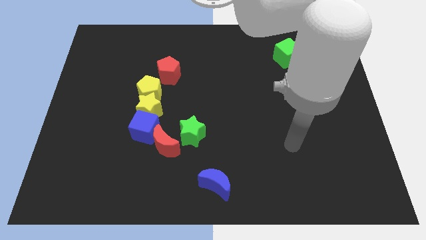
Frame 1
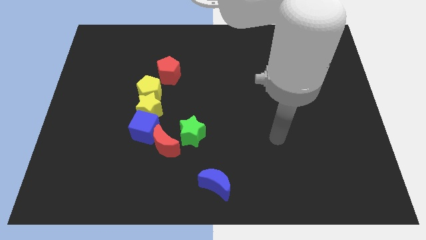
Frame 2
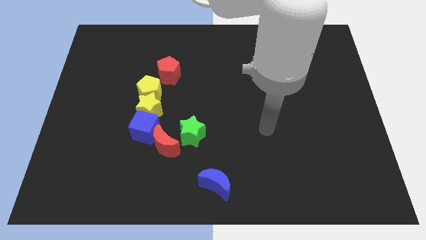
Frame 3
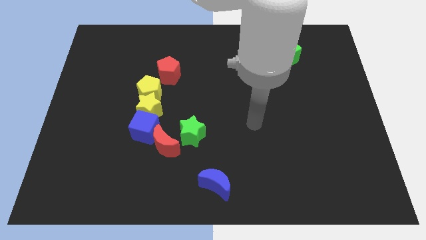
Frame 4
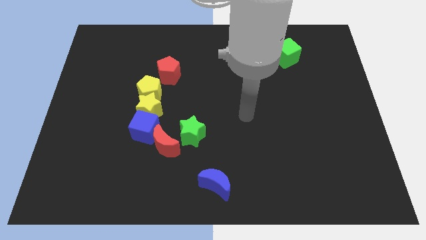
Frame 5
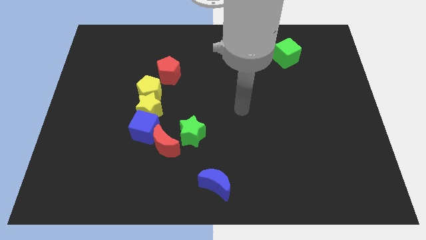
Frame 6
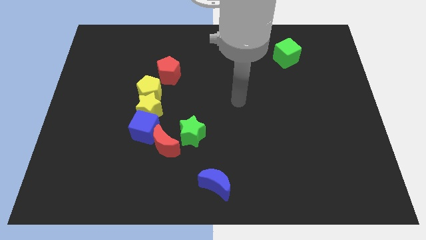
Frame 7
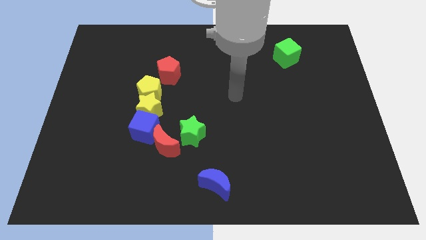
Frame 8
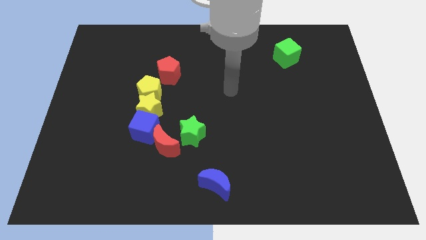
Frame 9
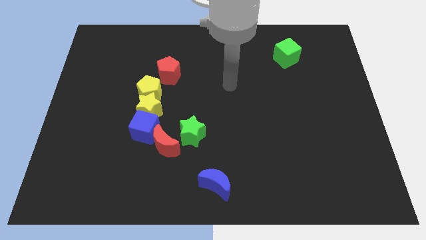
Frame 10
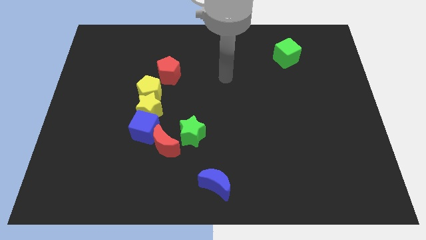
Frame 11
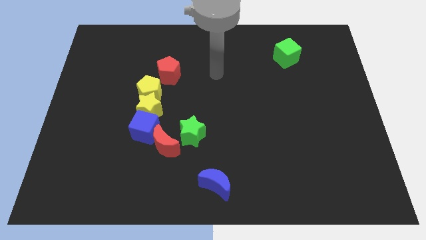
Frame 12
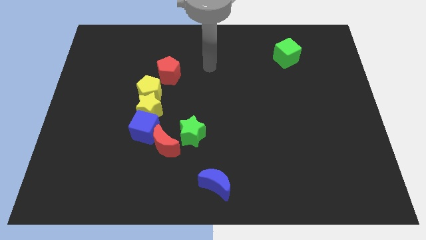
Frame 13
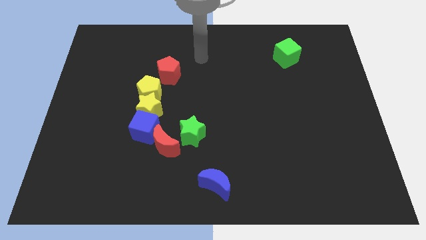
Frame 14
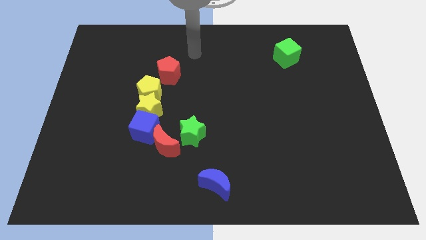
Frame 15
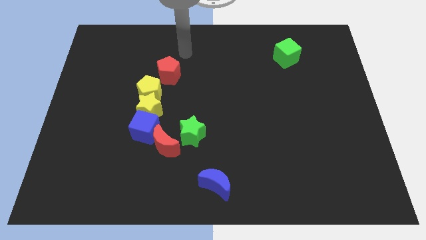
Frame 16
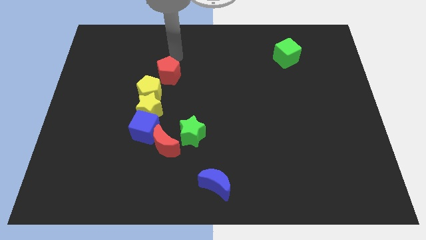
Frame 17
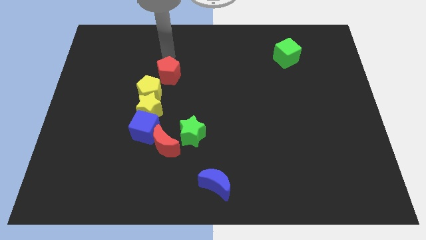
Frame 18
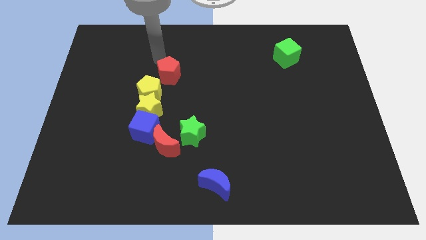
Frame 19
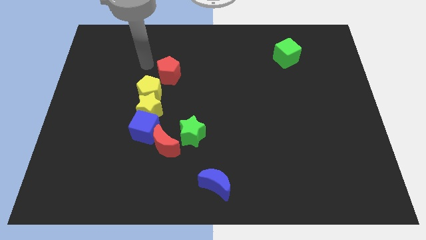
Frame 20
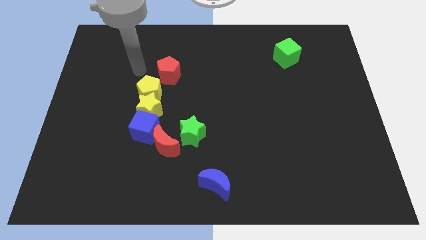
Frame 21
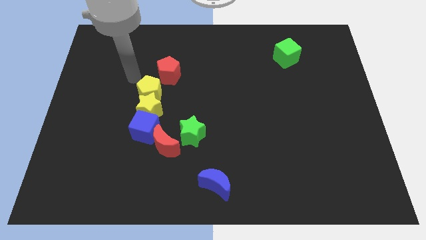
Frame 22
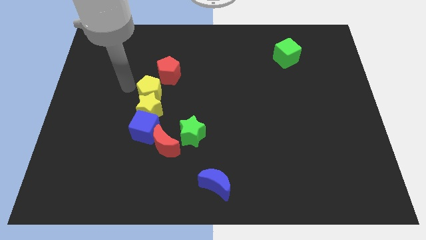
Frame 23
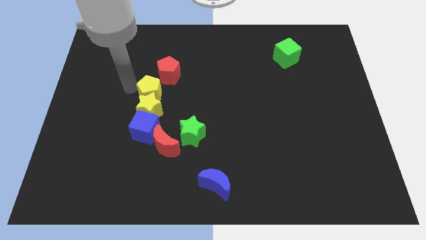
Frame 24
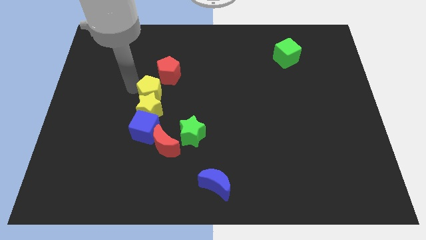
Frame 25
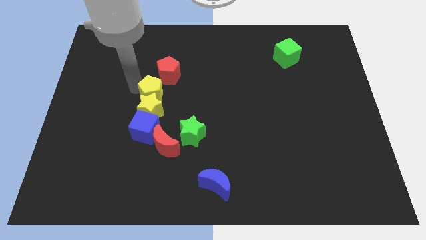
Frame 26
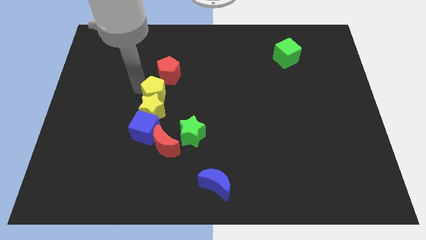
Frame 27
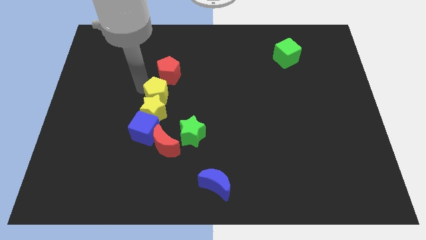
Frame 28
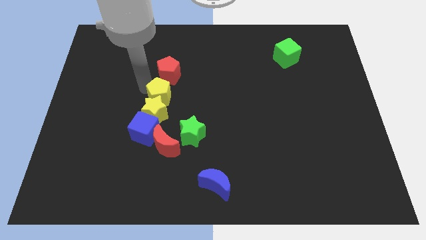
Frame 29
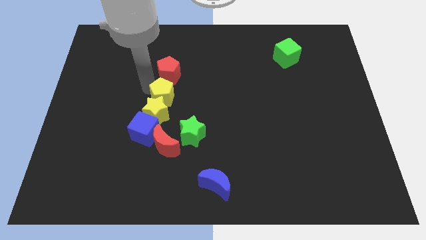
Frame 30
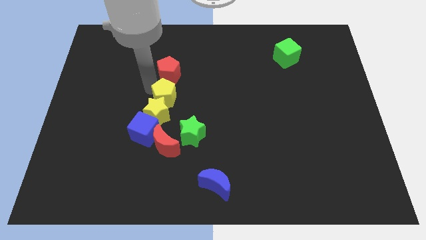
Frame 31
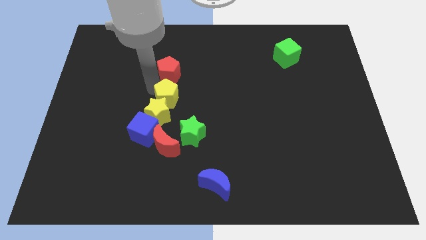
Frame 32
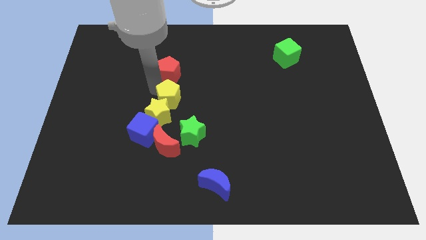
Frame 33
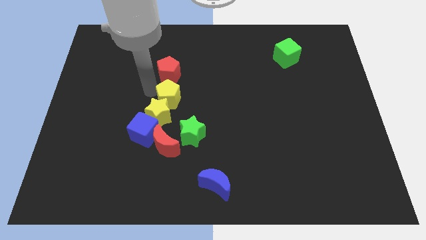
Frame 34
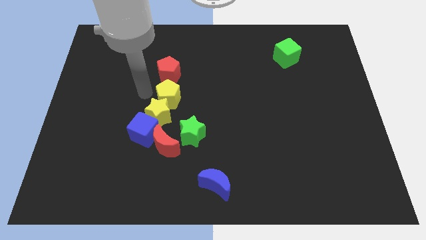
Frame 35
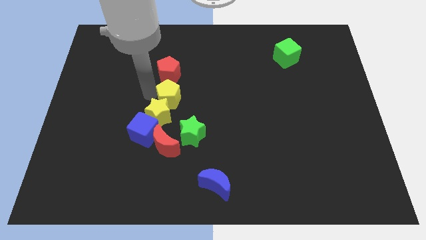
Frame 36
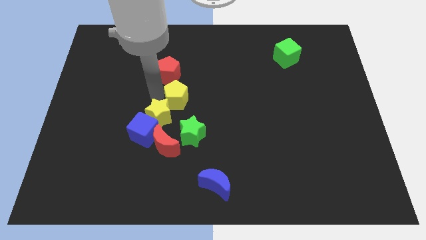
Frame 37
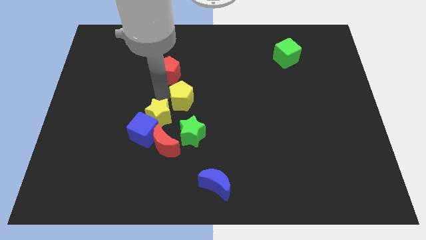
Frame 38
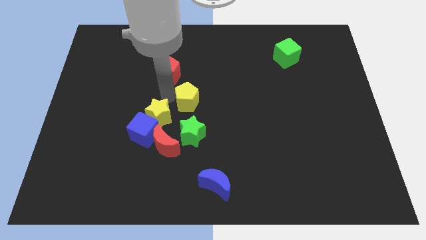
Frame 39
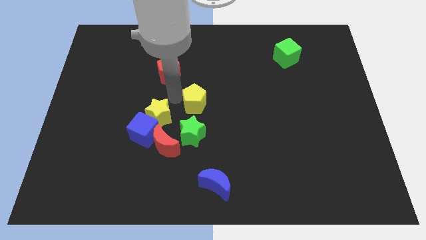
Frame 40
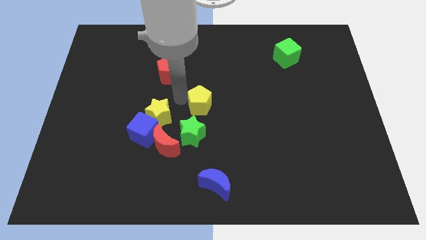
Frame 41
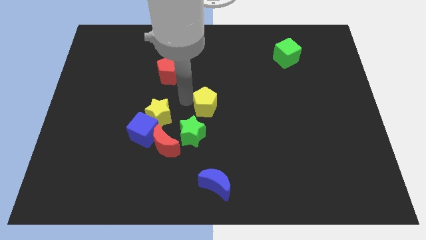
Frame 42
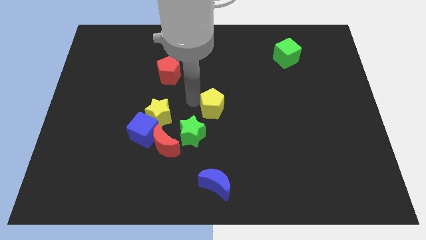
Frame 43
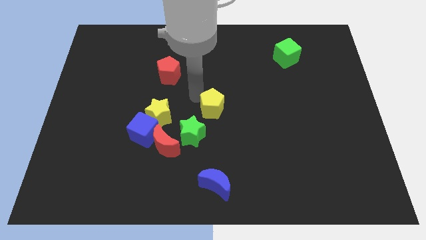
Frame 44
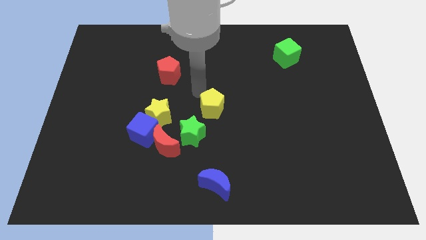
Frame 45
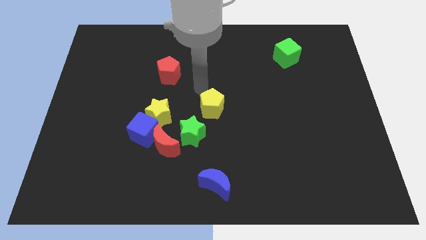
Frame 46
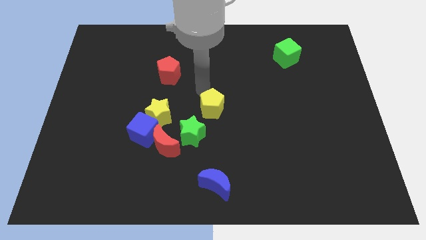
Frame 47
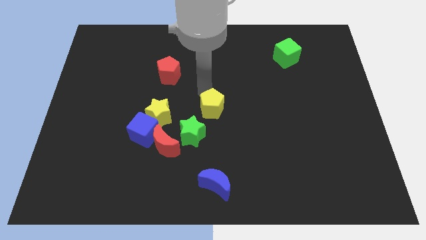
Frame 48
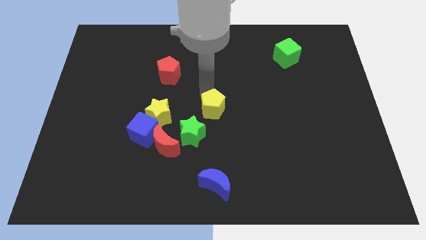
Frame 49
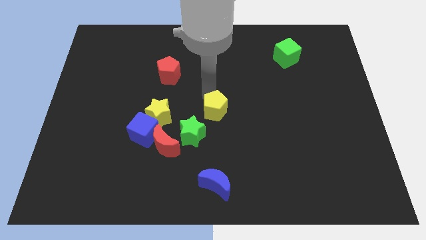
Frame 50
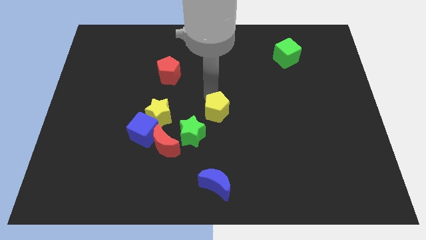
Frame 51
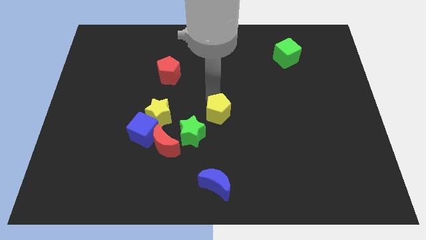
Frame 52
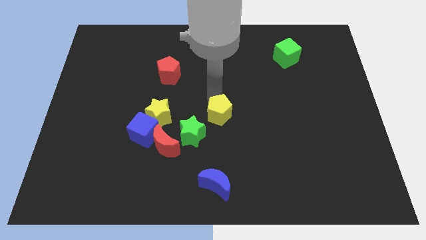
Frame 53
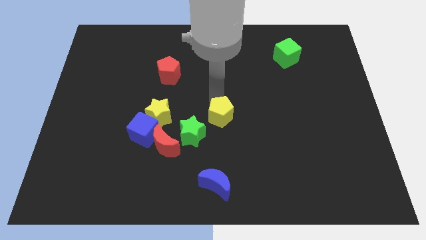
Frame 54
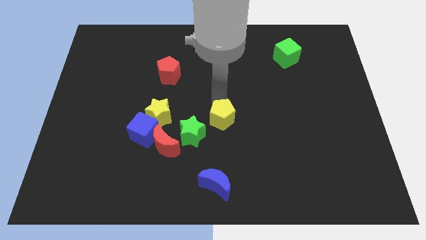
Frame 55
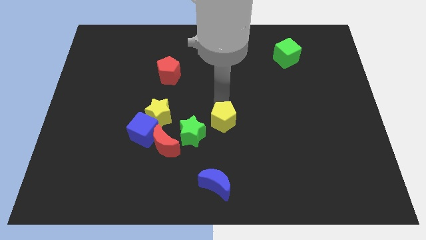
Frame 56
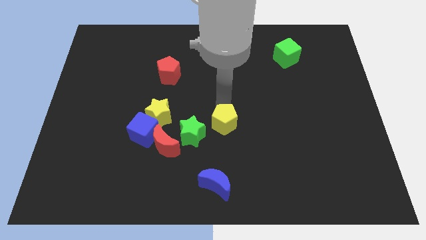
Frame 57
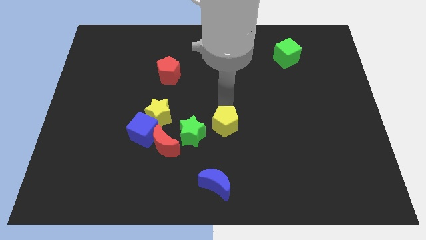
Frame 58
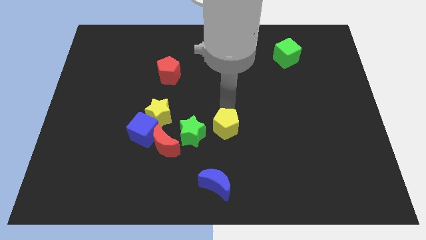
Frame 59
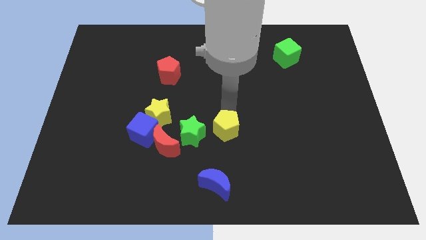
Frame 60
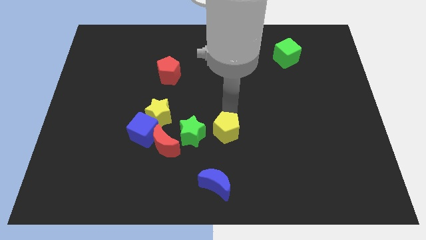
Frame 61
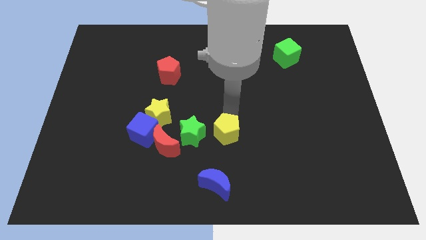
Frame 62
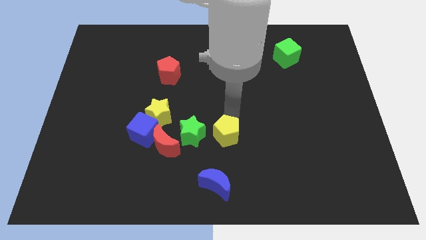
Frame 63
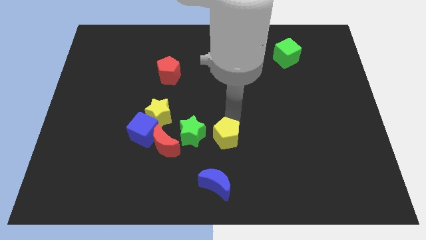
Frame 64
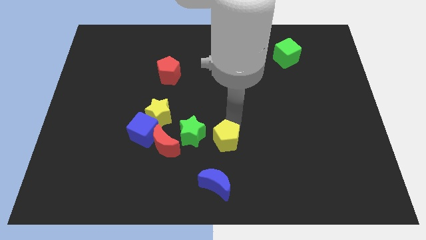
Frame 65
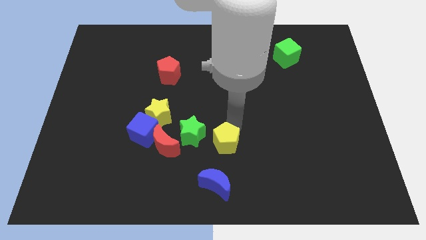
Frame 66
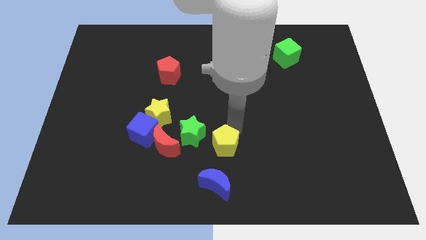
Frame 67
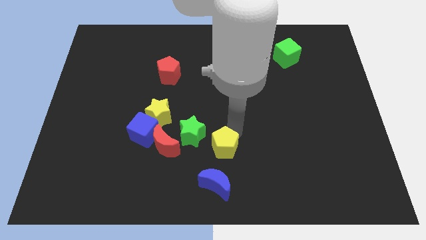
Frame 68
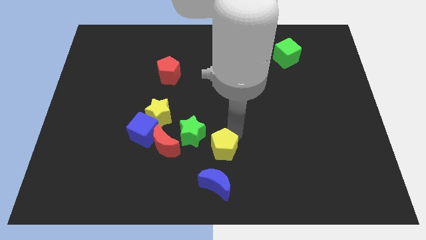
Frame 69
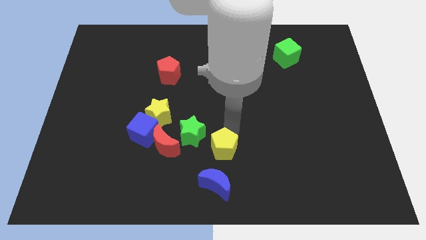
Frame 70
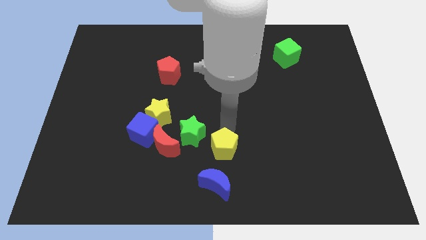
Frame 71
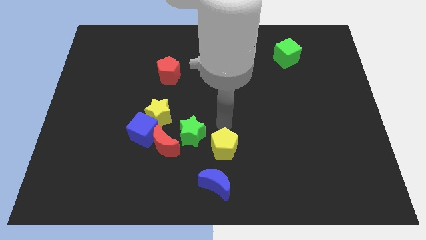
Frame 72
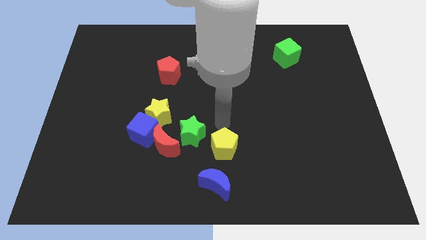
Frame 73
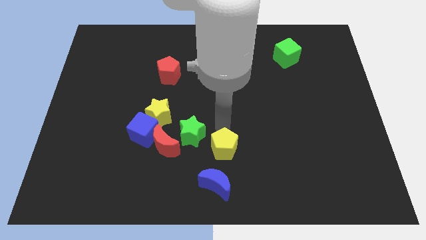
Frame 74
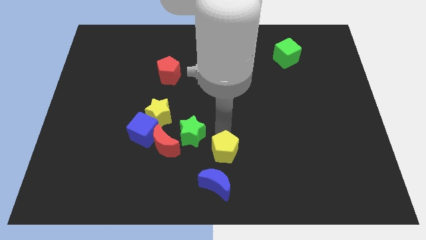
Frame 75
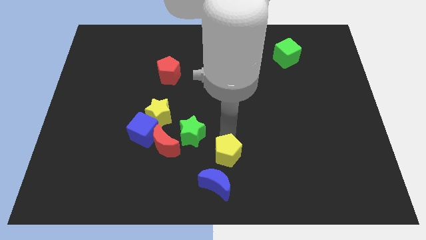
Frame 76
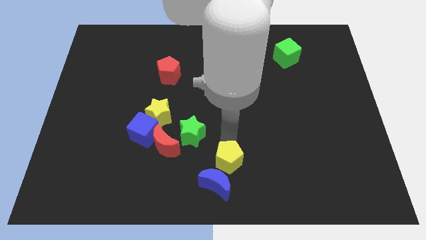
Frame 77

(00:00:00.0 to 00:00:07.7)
put the yellow pentagon to the blue moon
